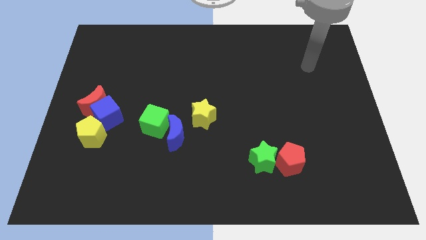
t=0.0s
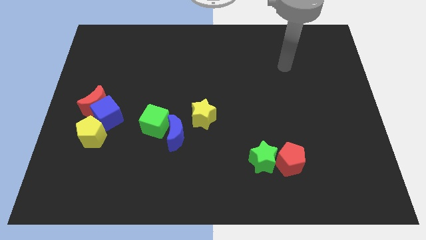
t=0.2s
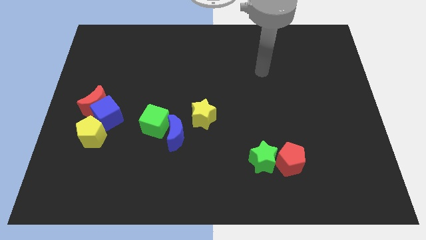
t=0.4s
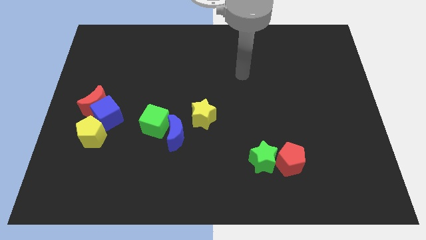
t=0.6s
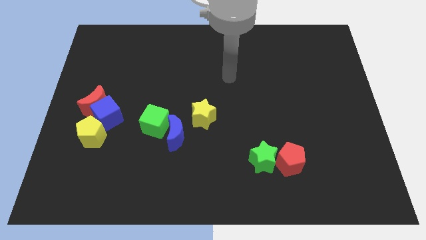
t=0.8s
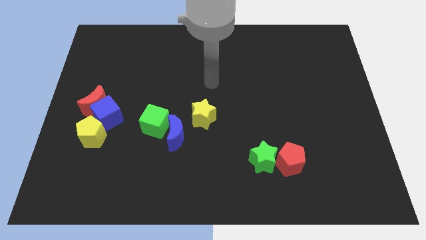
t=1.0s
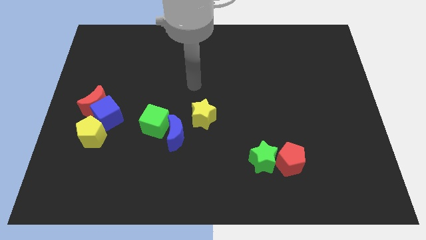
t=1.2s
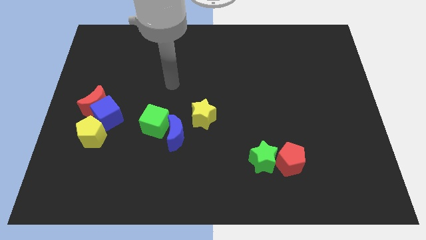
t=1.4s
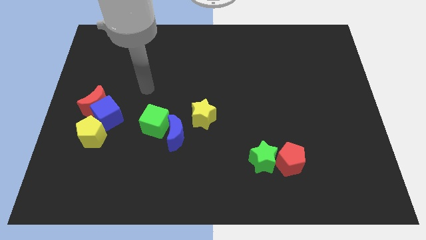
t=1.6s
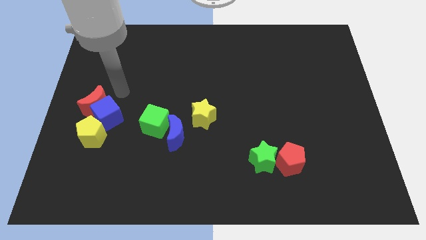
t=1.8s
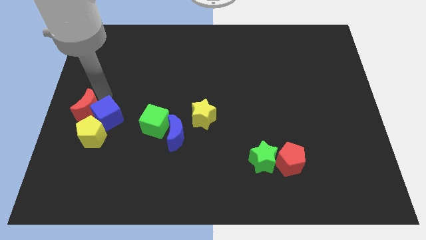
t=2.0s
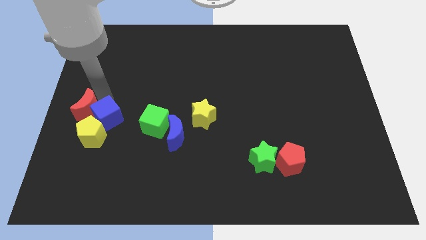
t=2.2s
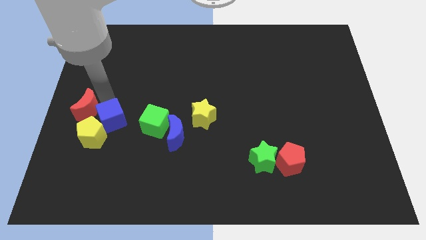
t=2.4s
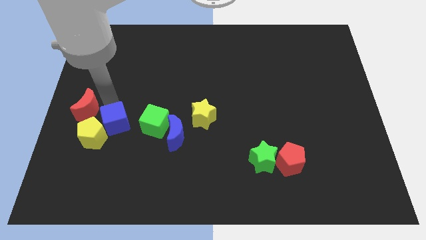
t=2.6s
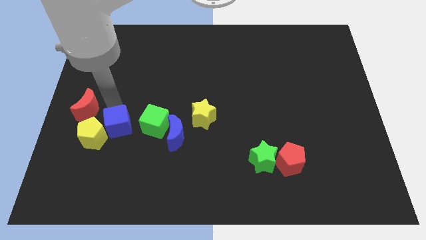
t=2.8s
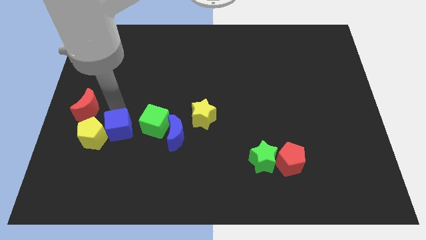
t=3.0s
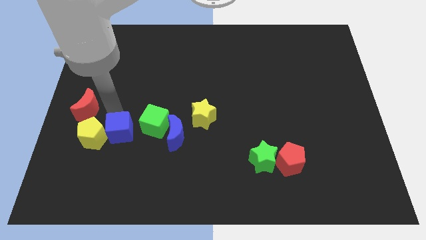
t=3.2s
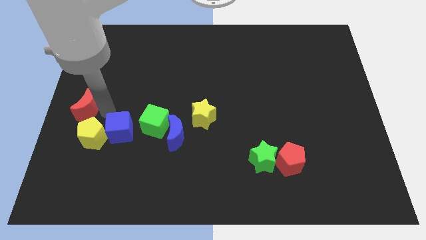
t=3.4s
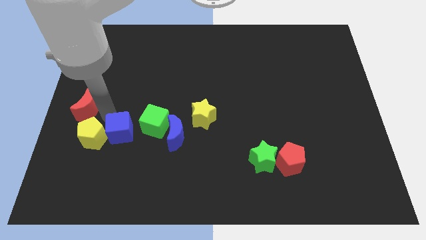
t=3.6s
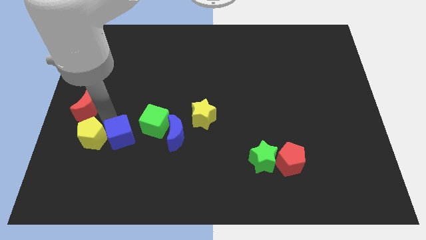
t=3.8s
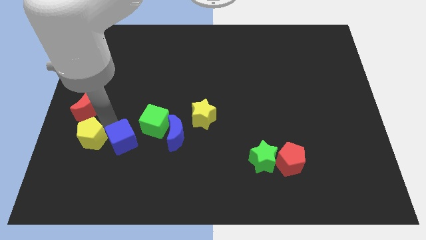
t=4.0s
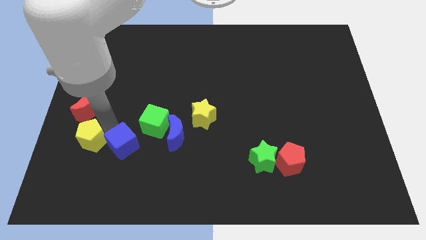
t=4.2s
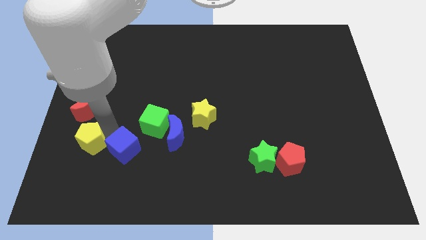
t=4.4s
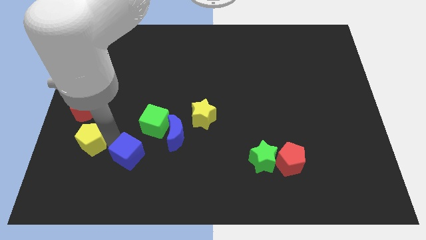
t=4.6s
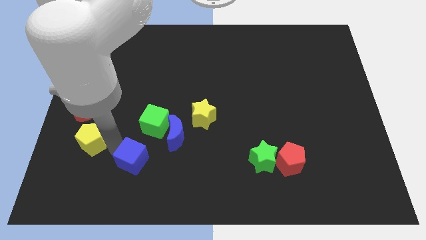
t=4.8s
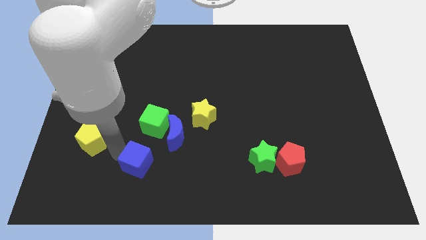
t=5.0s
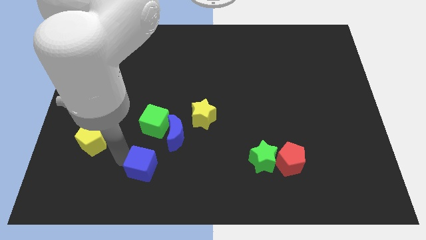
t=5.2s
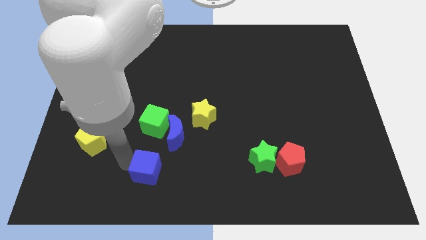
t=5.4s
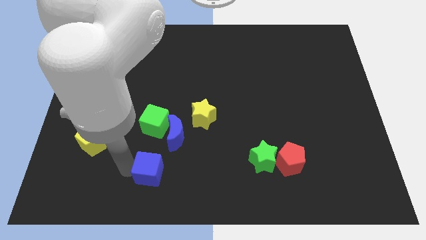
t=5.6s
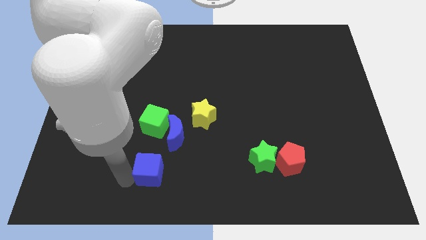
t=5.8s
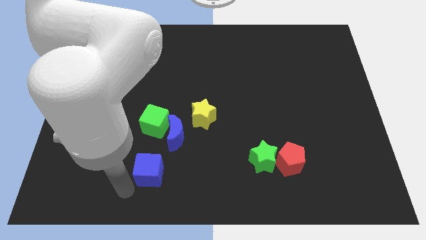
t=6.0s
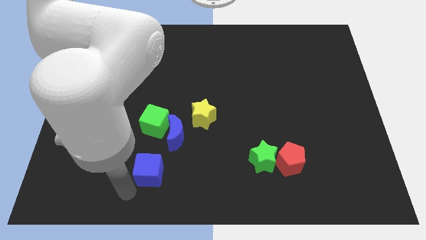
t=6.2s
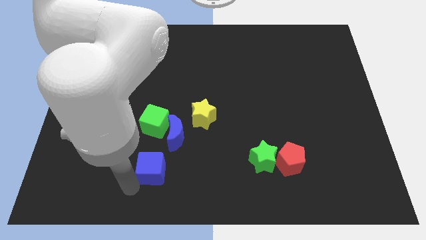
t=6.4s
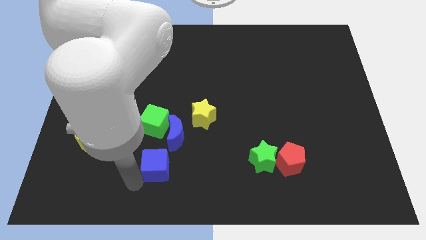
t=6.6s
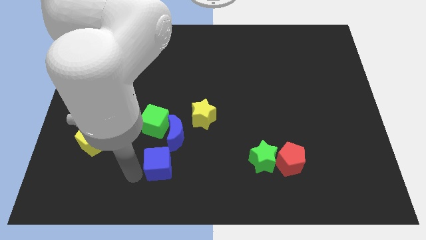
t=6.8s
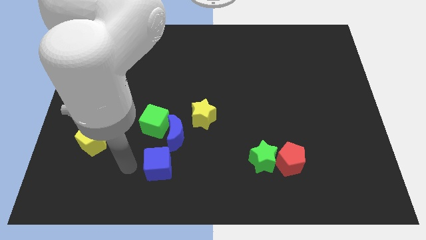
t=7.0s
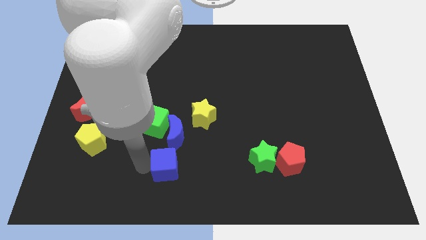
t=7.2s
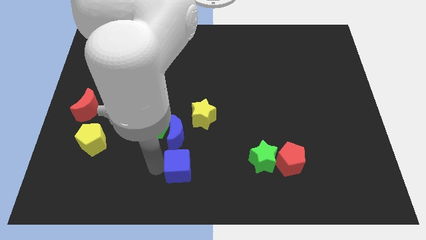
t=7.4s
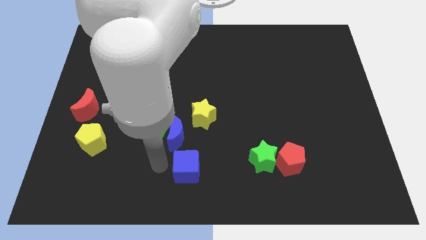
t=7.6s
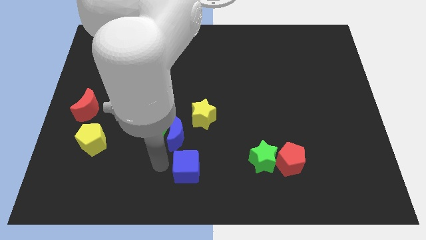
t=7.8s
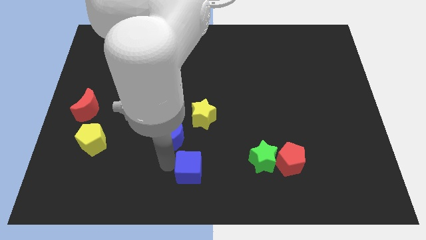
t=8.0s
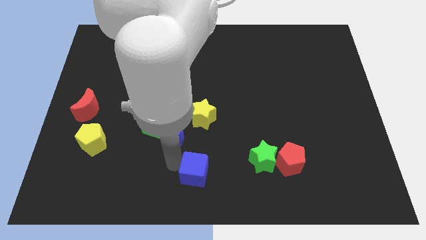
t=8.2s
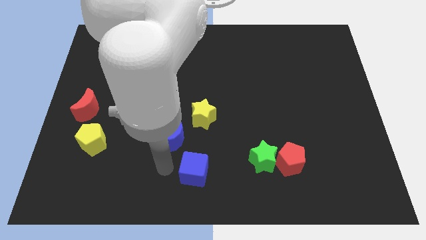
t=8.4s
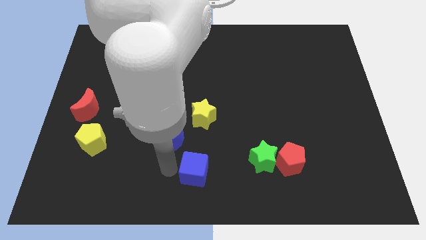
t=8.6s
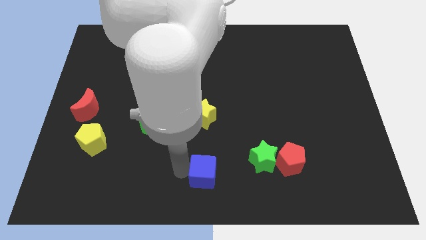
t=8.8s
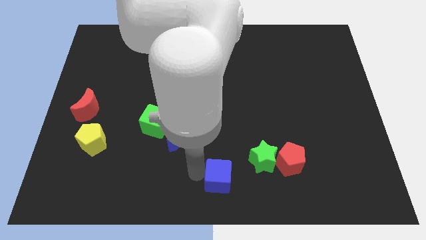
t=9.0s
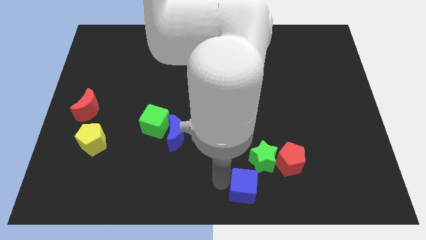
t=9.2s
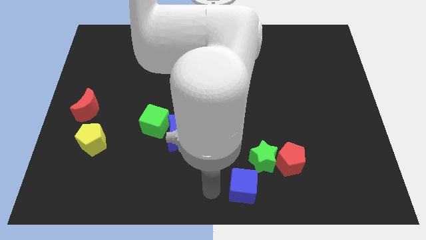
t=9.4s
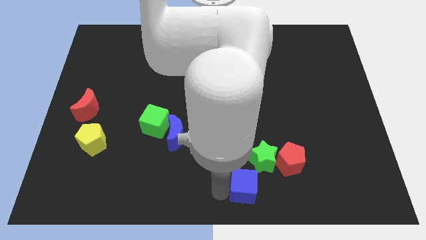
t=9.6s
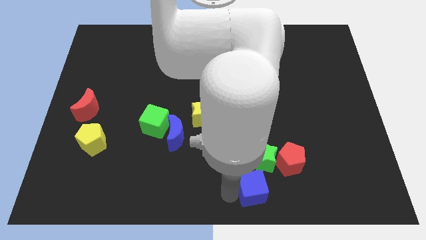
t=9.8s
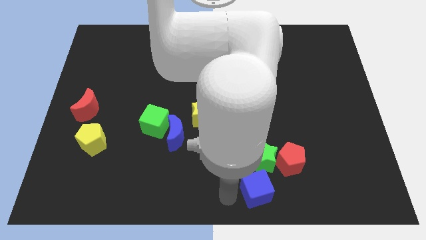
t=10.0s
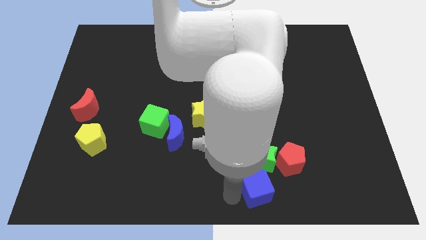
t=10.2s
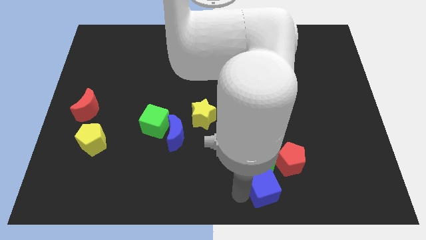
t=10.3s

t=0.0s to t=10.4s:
push the blue cube diagonally down and to the right of the green star

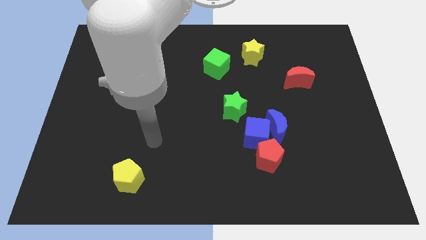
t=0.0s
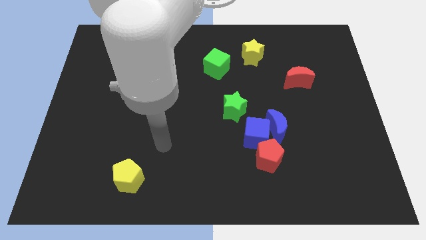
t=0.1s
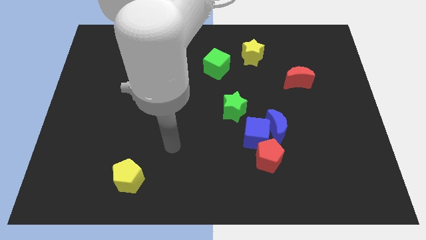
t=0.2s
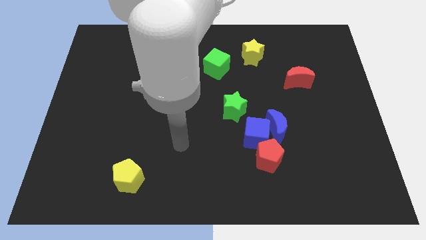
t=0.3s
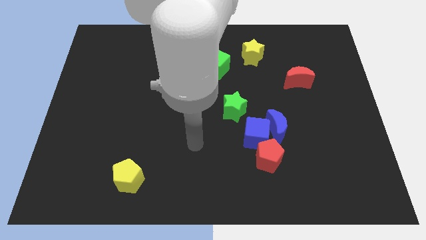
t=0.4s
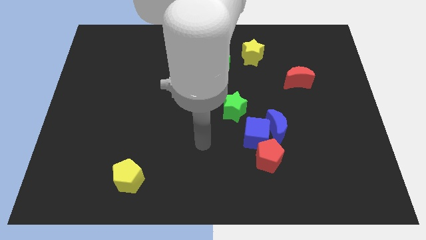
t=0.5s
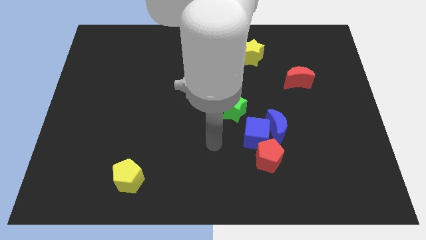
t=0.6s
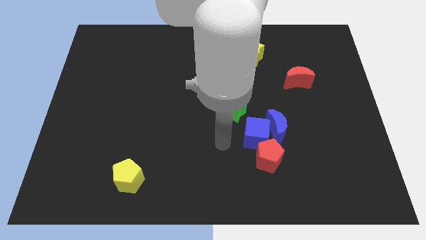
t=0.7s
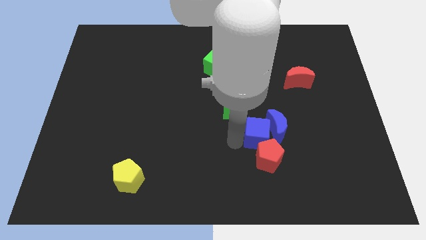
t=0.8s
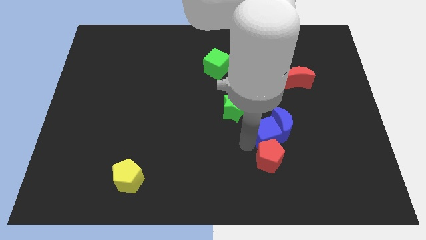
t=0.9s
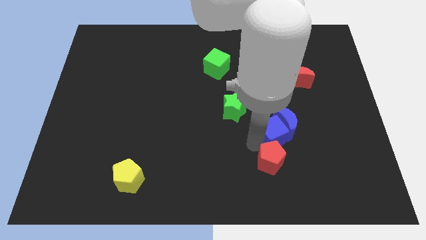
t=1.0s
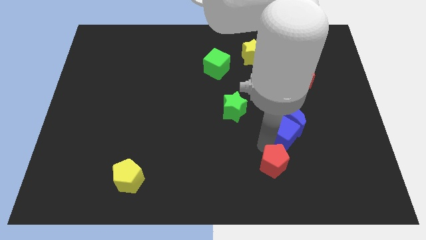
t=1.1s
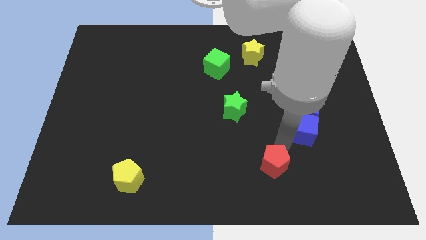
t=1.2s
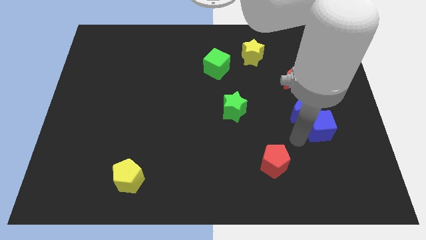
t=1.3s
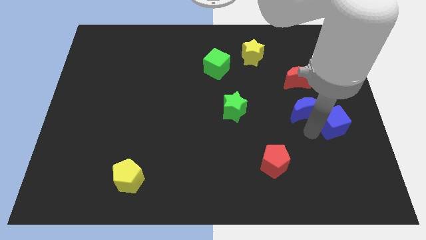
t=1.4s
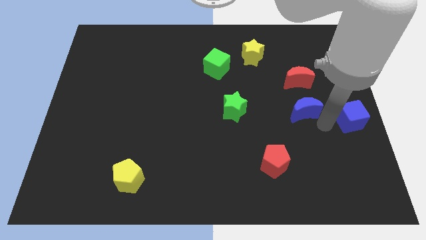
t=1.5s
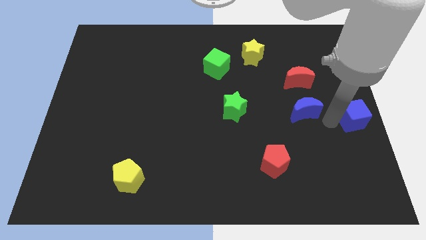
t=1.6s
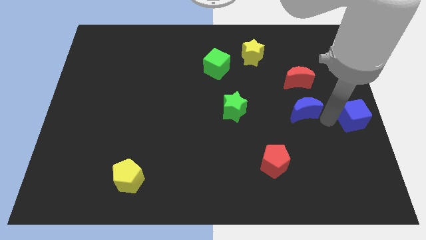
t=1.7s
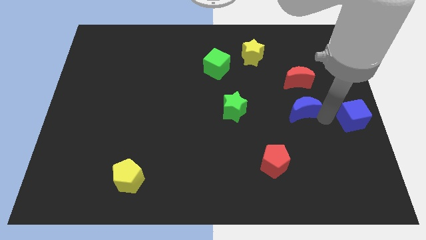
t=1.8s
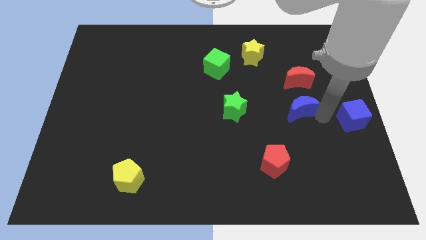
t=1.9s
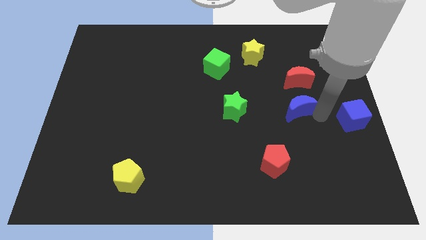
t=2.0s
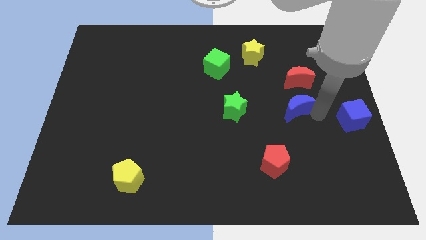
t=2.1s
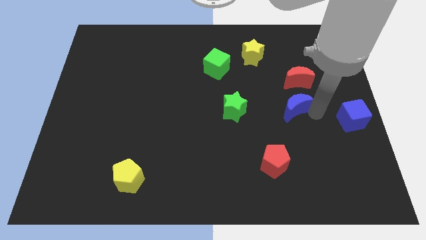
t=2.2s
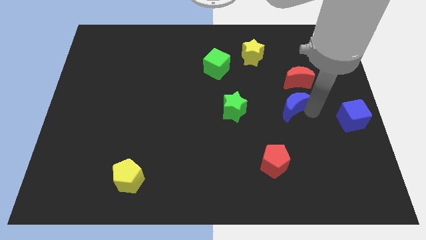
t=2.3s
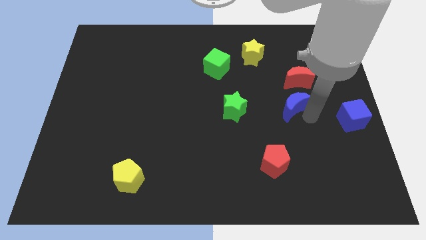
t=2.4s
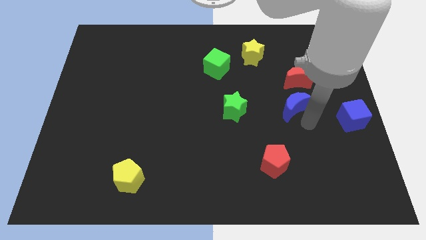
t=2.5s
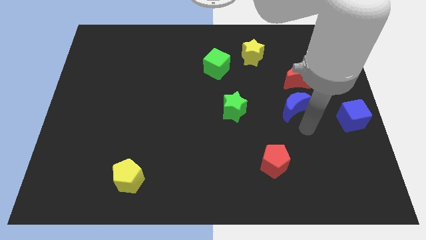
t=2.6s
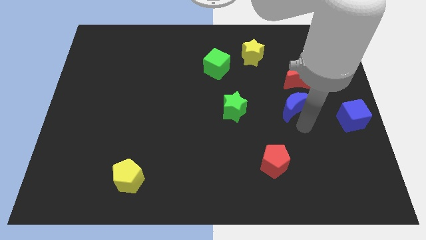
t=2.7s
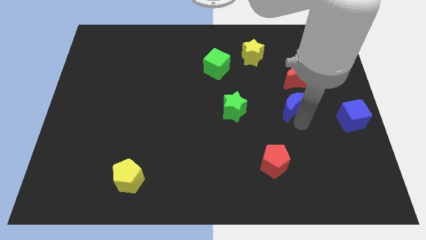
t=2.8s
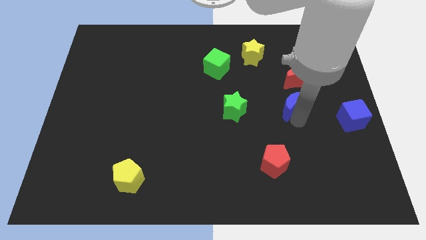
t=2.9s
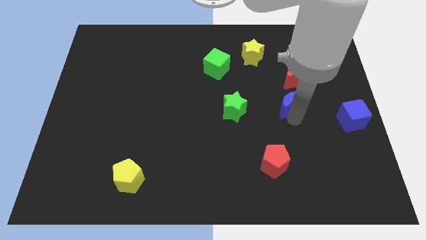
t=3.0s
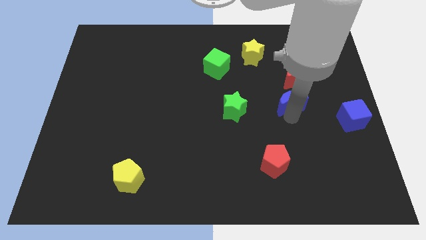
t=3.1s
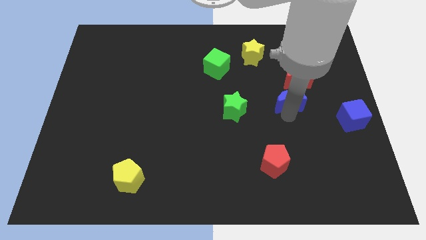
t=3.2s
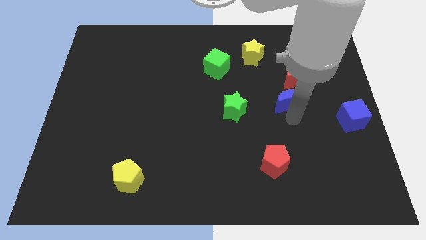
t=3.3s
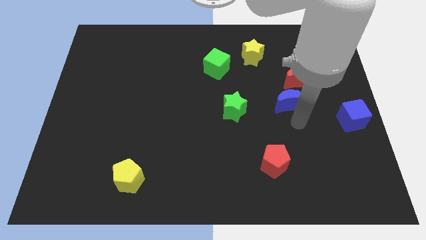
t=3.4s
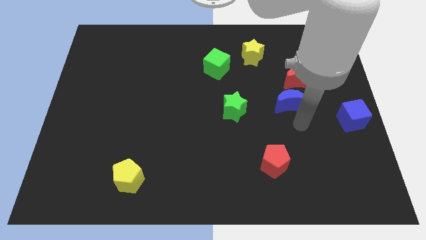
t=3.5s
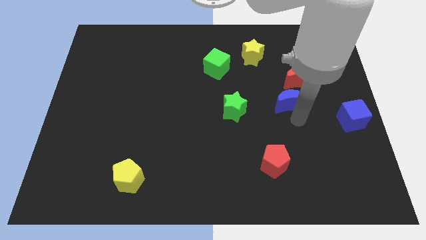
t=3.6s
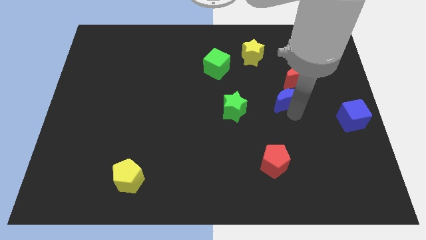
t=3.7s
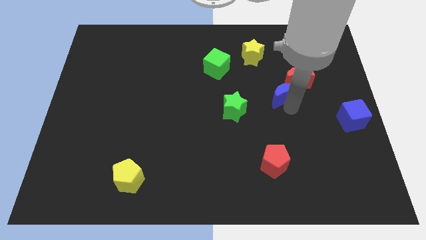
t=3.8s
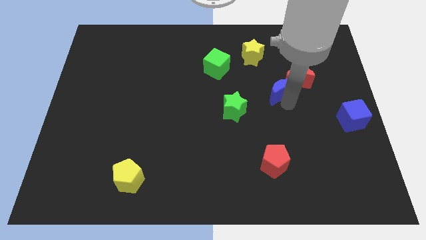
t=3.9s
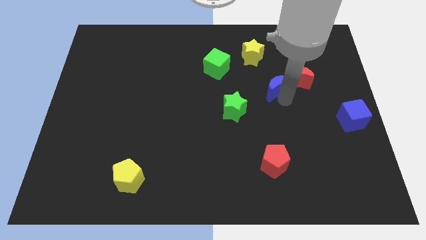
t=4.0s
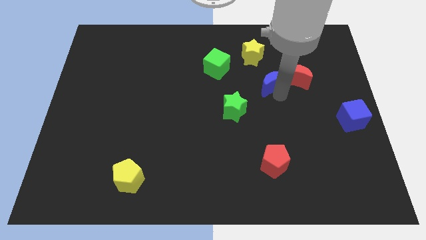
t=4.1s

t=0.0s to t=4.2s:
put the blue moon to the bottom right of the yellow star
